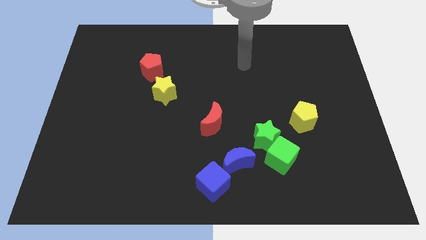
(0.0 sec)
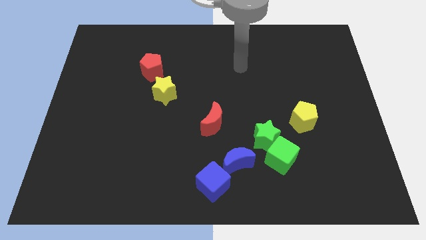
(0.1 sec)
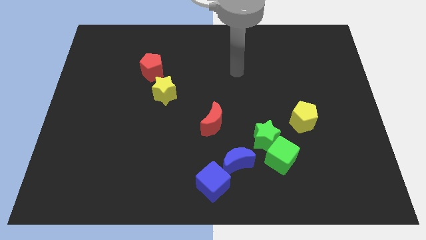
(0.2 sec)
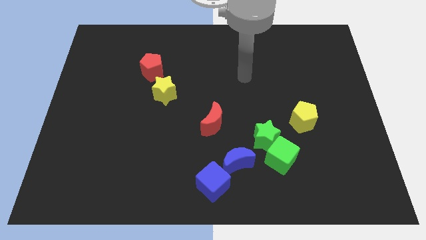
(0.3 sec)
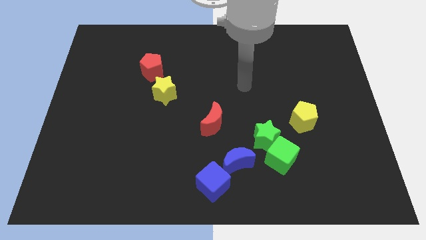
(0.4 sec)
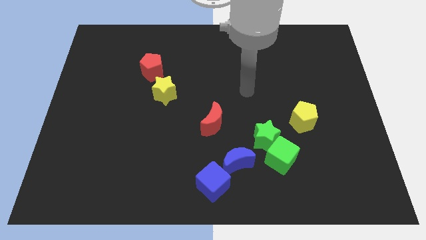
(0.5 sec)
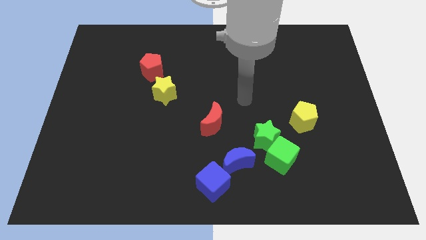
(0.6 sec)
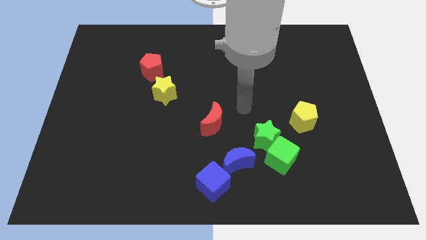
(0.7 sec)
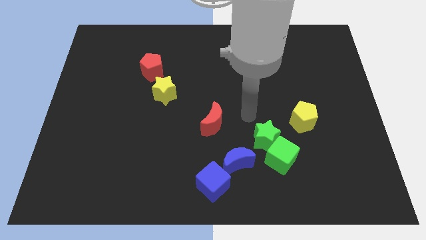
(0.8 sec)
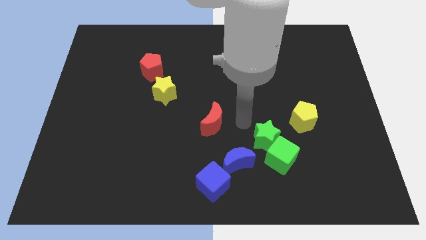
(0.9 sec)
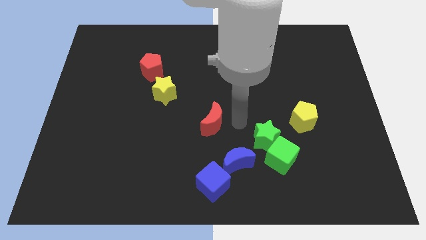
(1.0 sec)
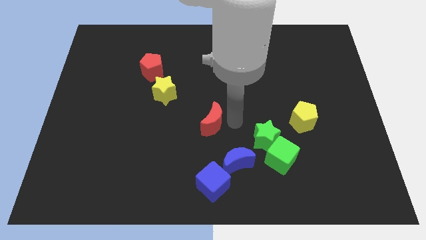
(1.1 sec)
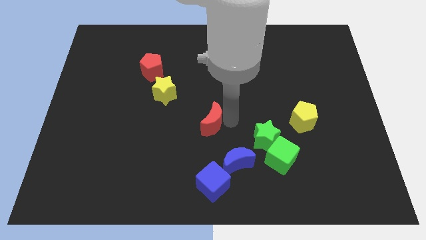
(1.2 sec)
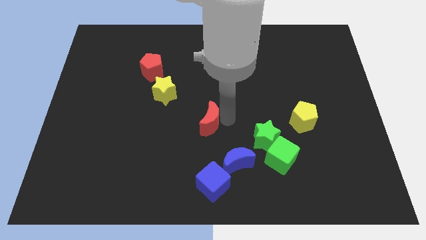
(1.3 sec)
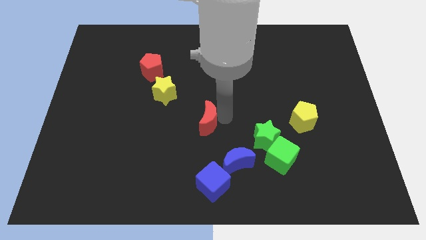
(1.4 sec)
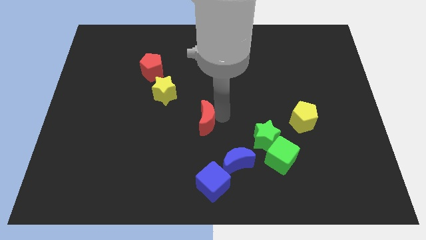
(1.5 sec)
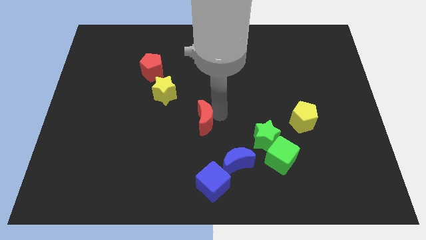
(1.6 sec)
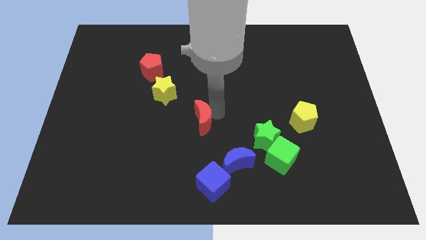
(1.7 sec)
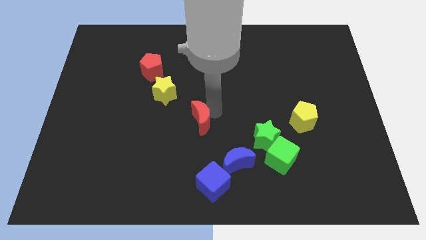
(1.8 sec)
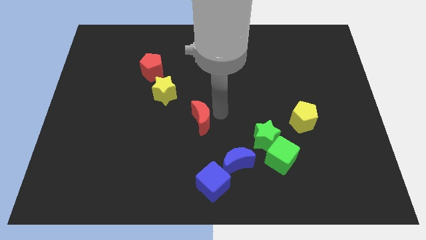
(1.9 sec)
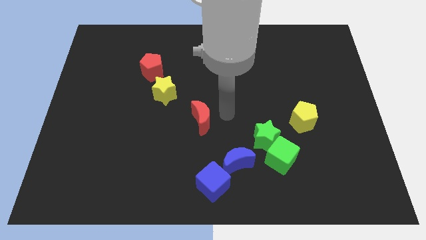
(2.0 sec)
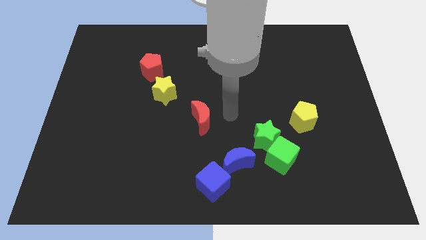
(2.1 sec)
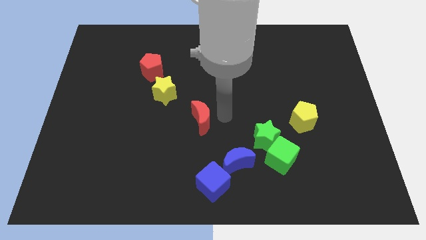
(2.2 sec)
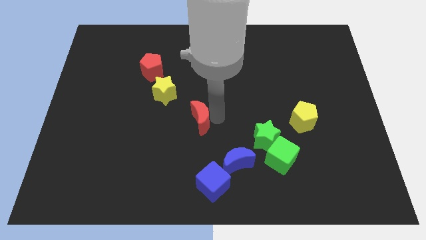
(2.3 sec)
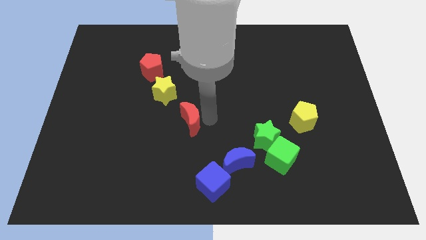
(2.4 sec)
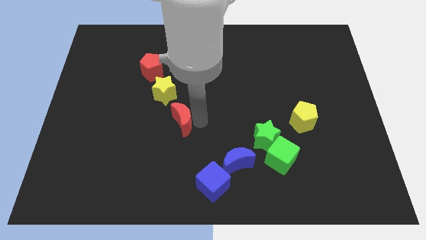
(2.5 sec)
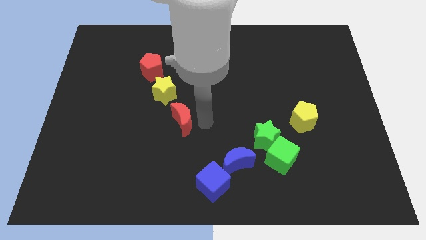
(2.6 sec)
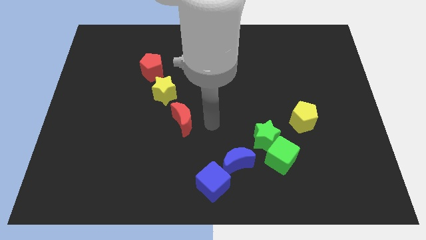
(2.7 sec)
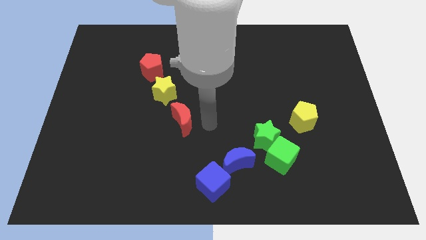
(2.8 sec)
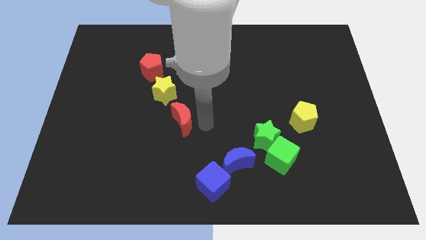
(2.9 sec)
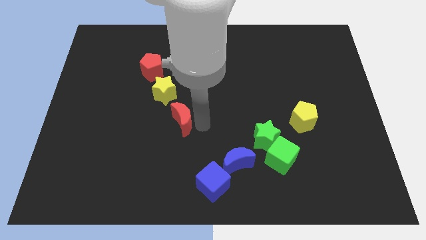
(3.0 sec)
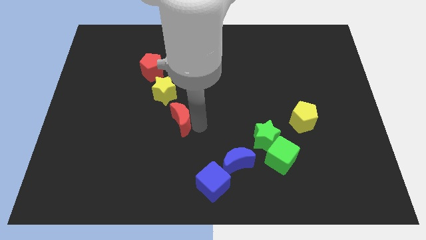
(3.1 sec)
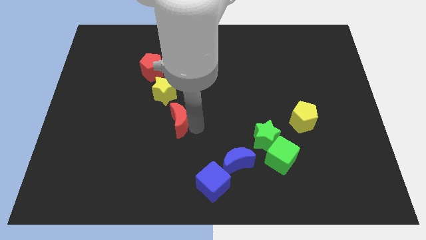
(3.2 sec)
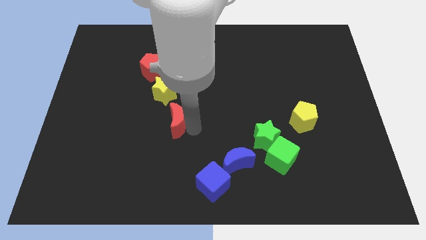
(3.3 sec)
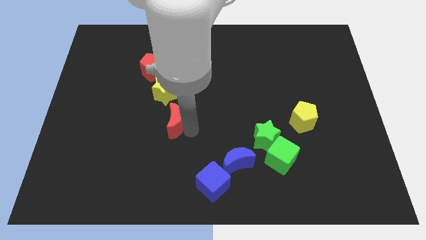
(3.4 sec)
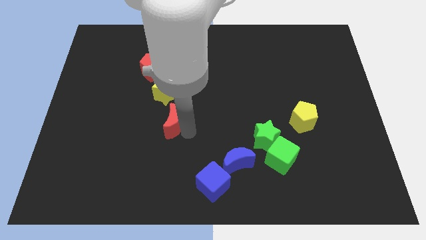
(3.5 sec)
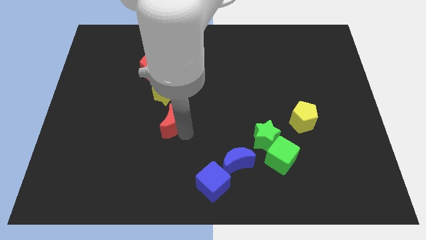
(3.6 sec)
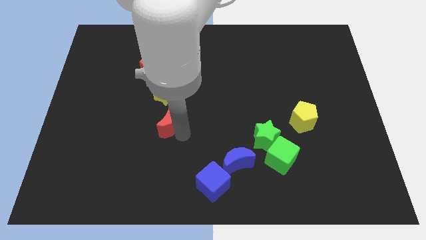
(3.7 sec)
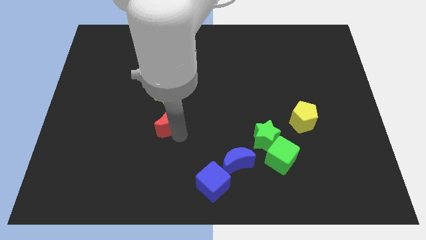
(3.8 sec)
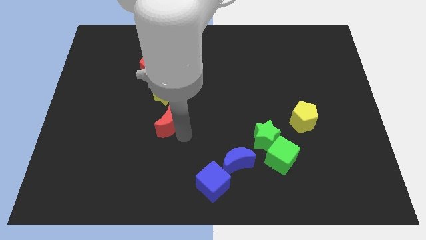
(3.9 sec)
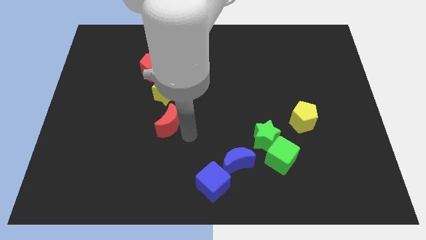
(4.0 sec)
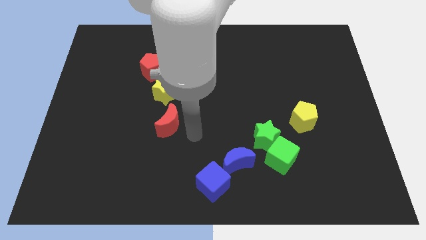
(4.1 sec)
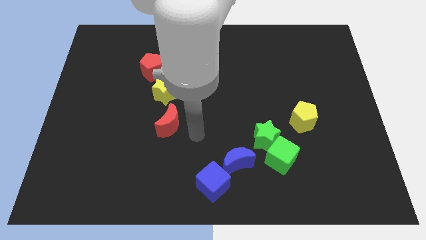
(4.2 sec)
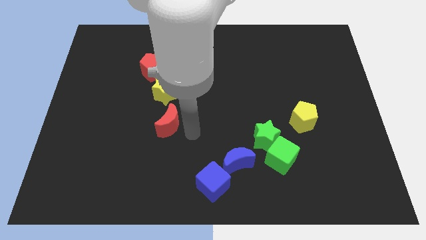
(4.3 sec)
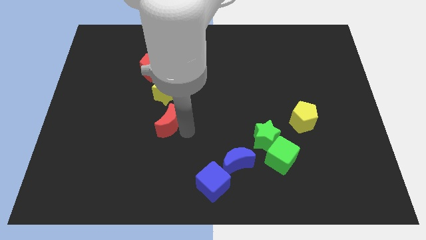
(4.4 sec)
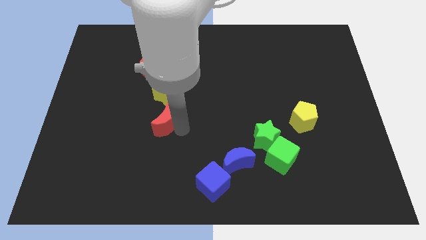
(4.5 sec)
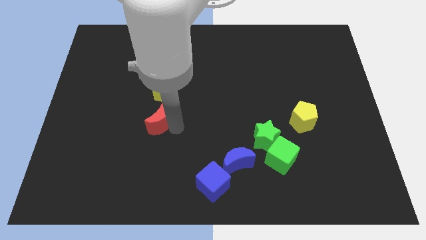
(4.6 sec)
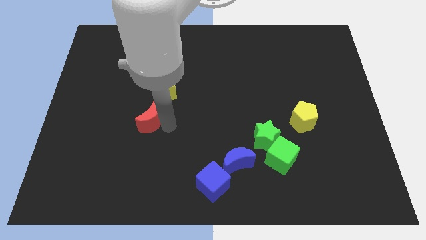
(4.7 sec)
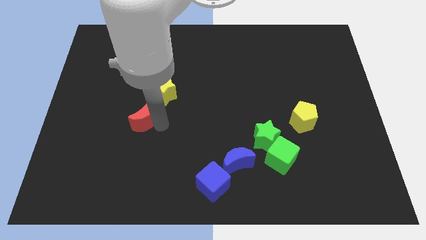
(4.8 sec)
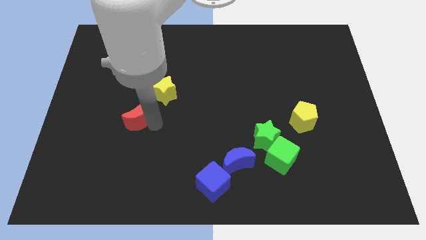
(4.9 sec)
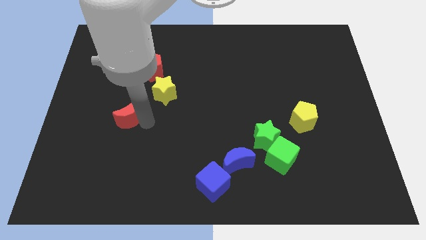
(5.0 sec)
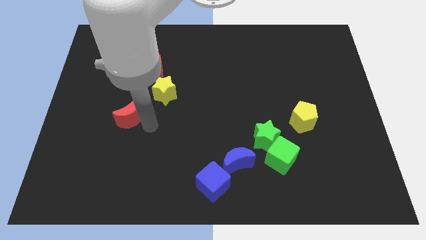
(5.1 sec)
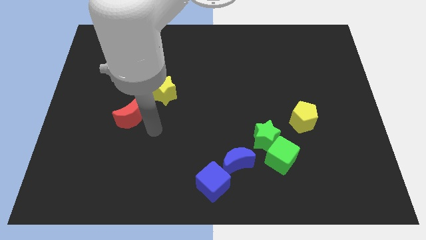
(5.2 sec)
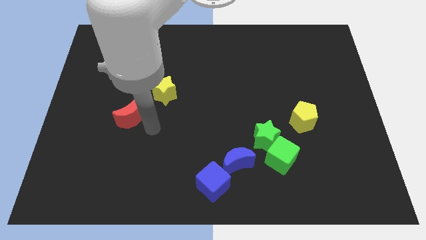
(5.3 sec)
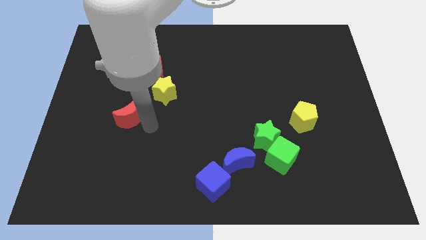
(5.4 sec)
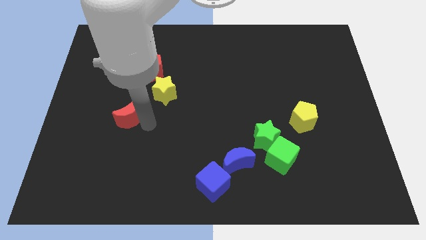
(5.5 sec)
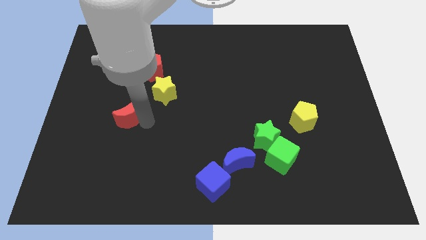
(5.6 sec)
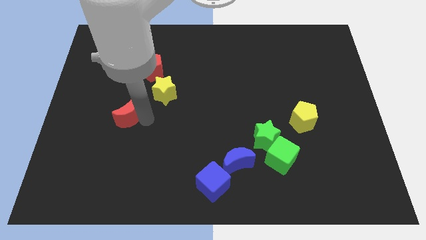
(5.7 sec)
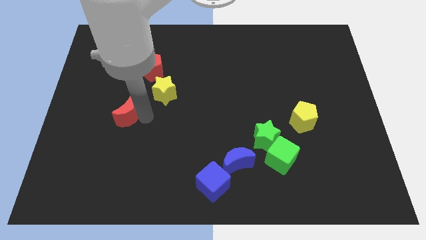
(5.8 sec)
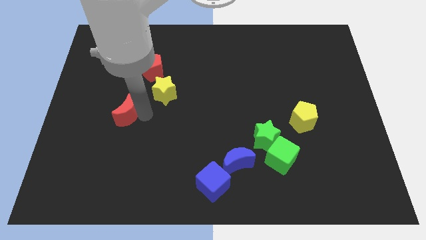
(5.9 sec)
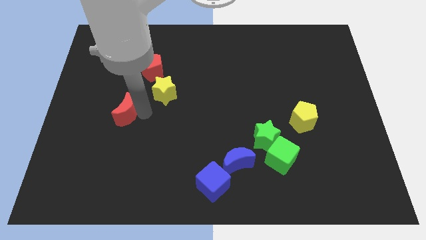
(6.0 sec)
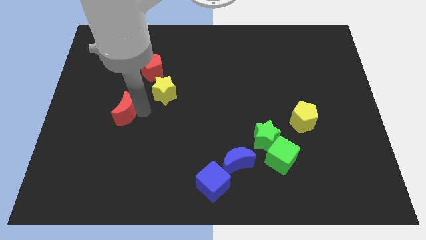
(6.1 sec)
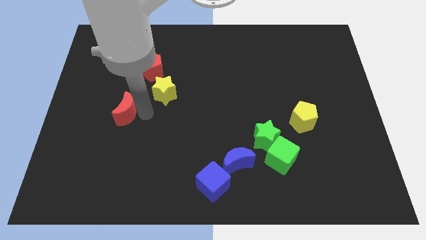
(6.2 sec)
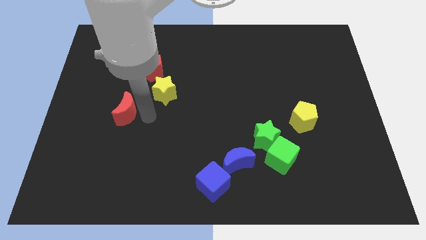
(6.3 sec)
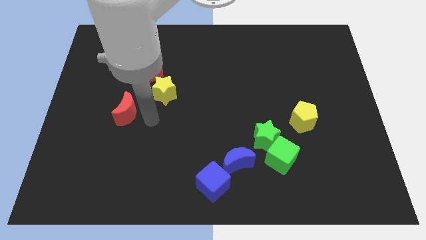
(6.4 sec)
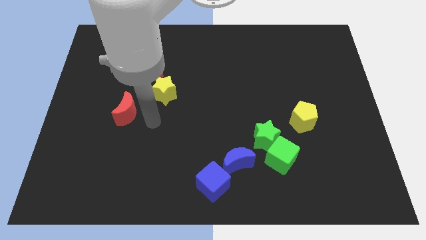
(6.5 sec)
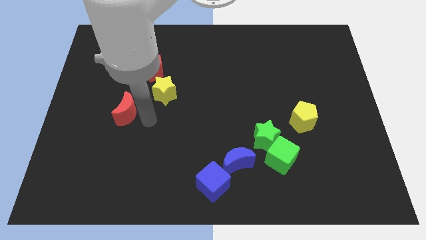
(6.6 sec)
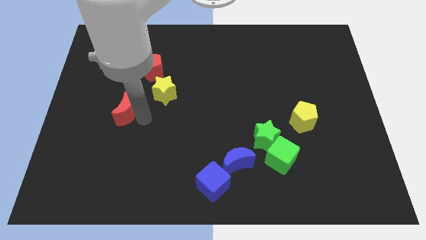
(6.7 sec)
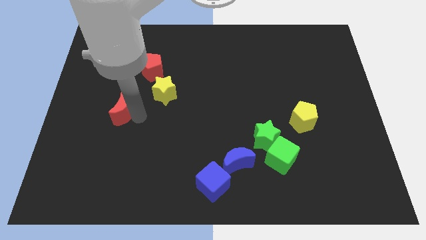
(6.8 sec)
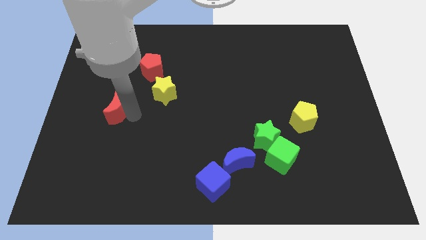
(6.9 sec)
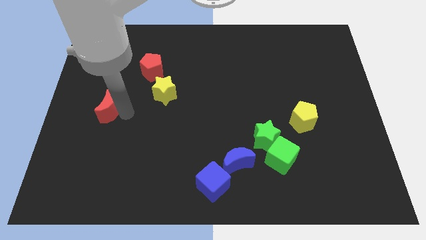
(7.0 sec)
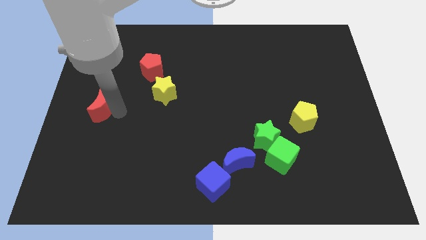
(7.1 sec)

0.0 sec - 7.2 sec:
push the red moon to the center left

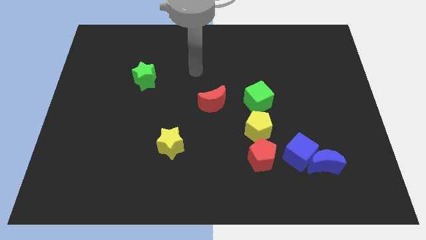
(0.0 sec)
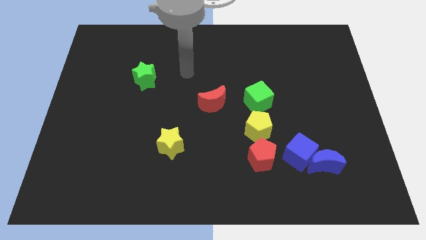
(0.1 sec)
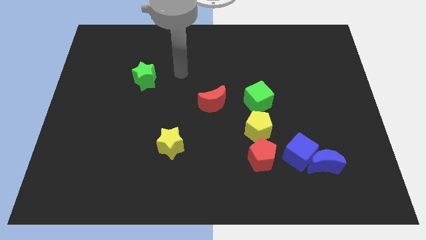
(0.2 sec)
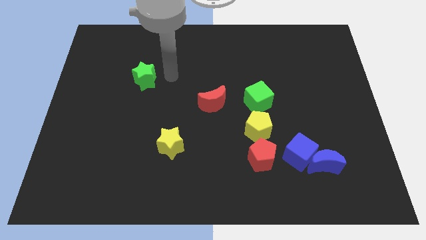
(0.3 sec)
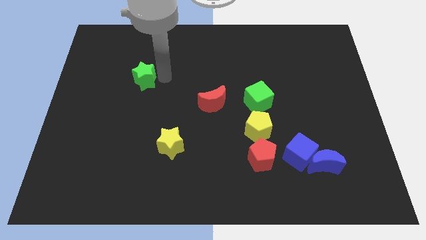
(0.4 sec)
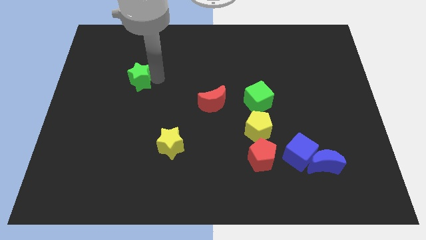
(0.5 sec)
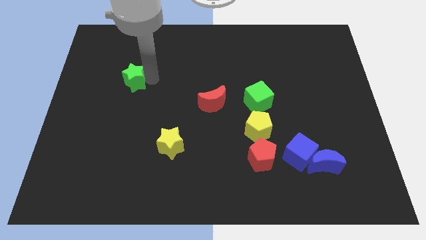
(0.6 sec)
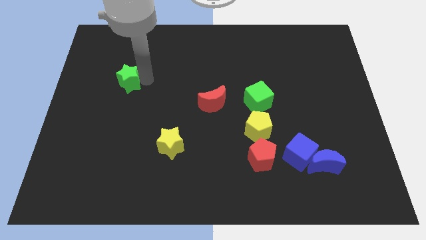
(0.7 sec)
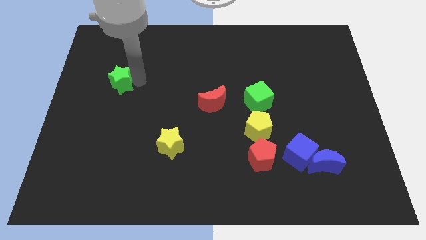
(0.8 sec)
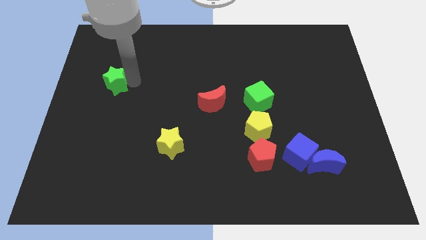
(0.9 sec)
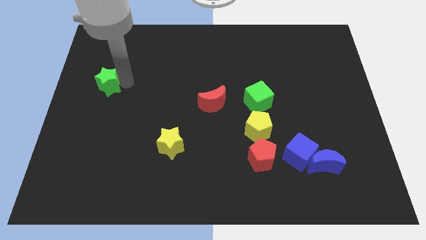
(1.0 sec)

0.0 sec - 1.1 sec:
slide the green star to the left side
